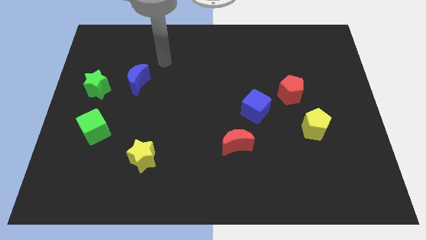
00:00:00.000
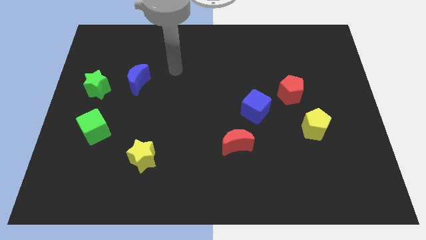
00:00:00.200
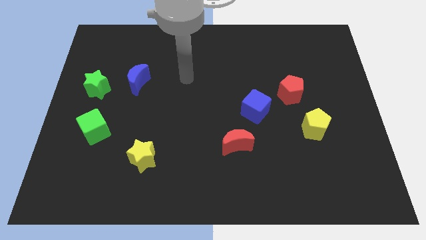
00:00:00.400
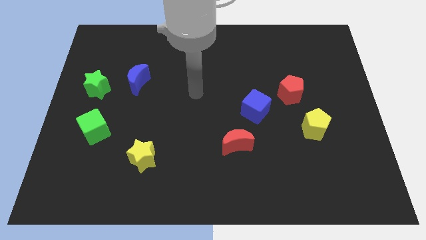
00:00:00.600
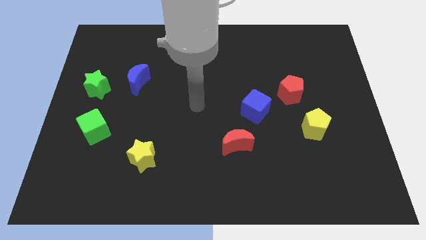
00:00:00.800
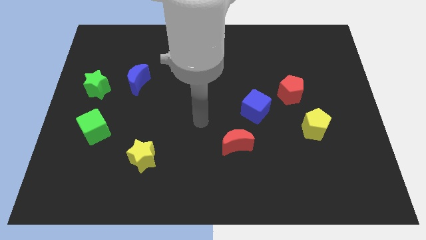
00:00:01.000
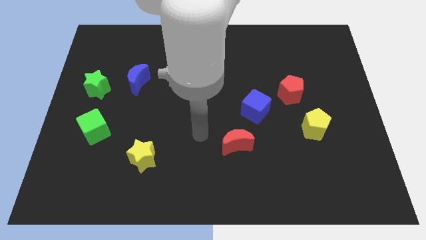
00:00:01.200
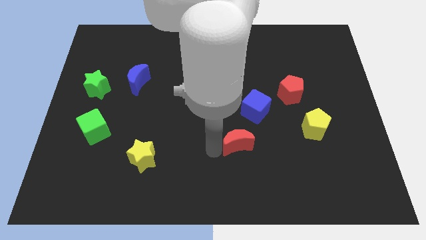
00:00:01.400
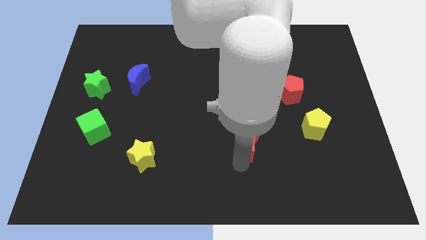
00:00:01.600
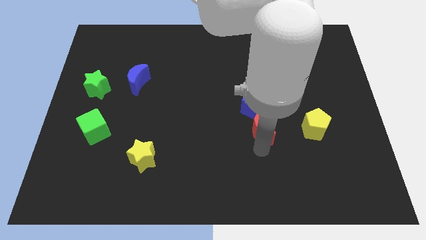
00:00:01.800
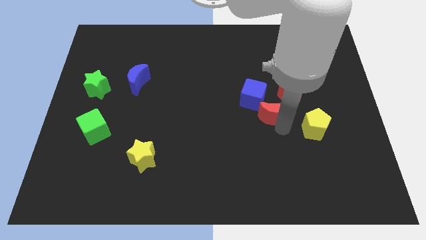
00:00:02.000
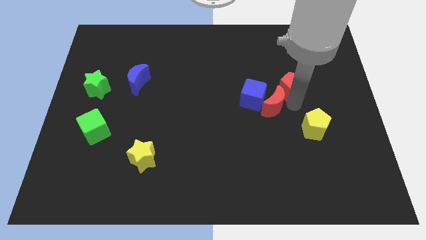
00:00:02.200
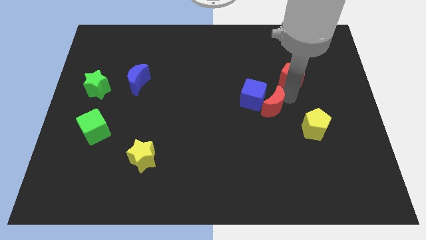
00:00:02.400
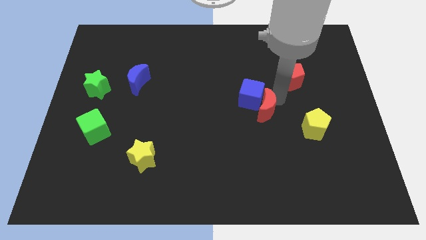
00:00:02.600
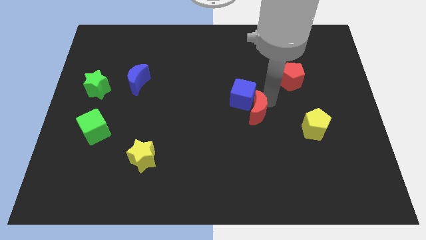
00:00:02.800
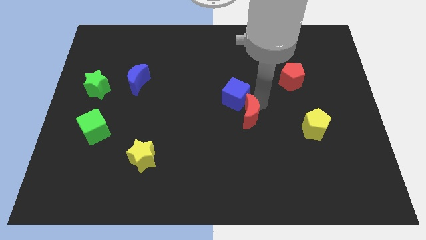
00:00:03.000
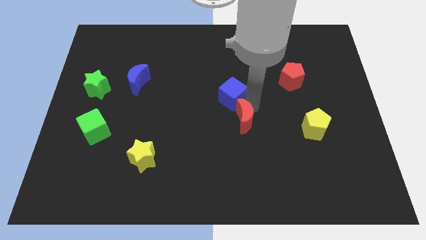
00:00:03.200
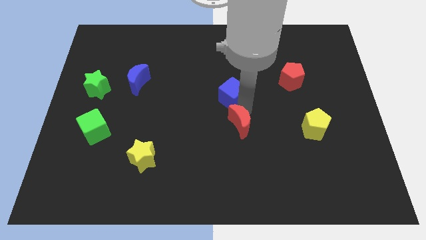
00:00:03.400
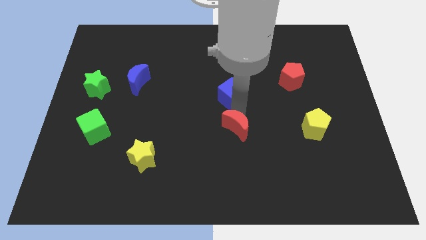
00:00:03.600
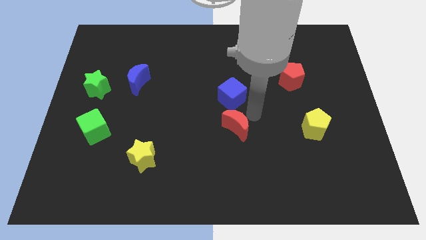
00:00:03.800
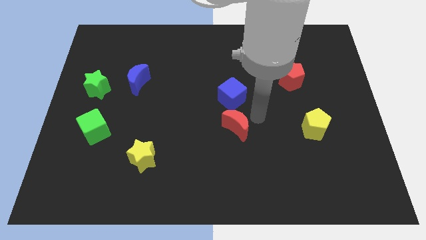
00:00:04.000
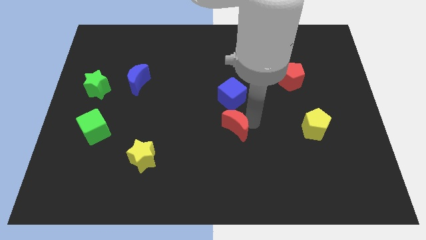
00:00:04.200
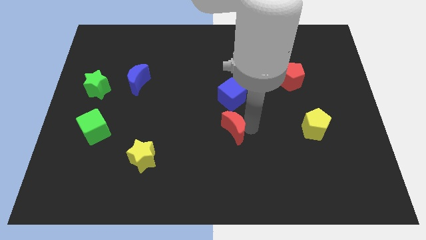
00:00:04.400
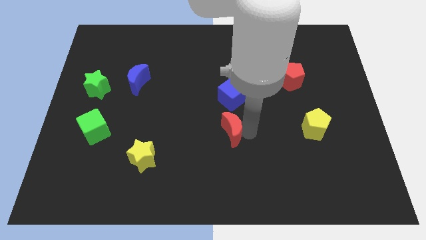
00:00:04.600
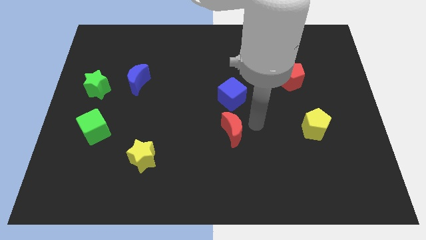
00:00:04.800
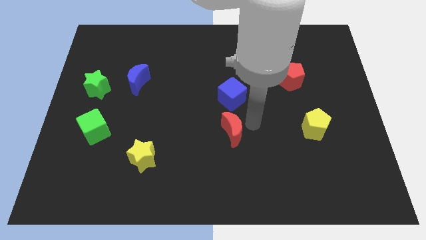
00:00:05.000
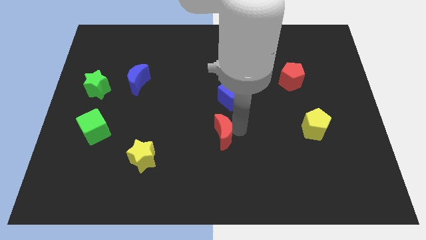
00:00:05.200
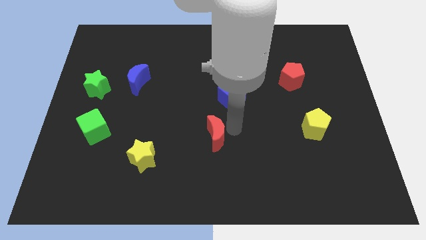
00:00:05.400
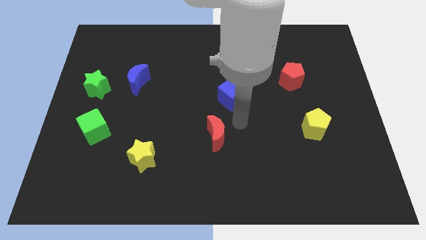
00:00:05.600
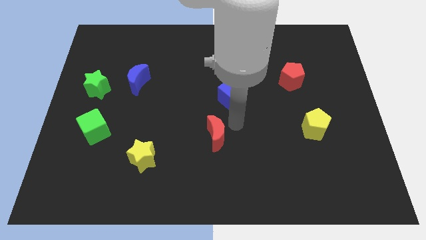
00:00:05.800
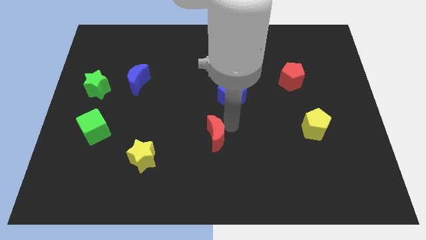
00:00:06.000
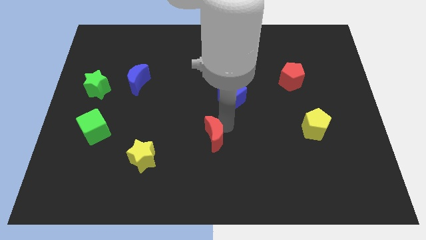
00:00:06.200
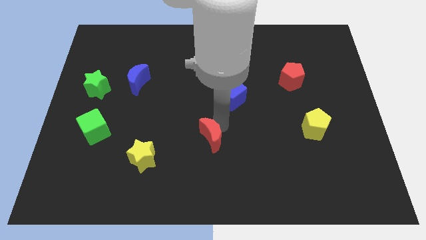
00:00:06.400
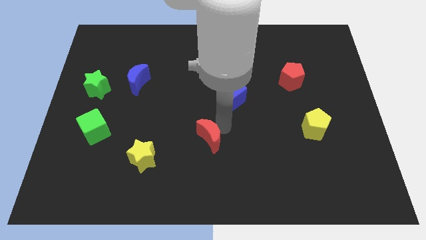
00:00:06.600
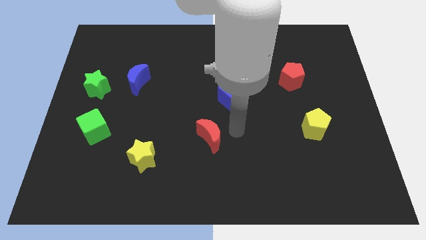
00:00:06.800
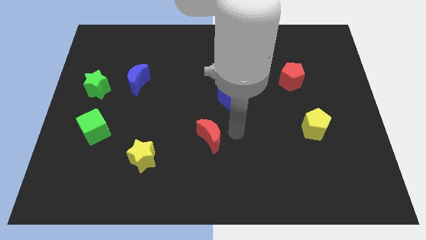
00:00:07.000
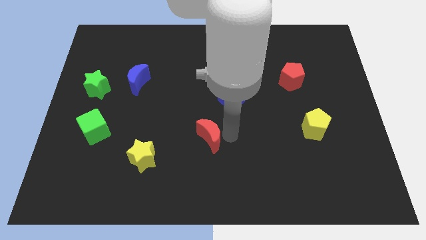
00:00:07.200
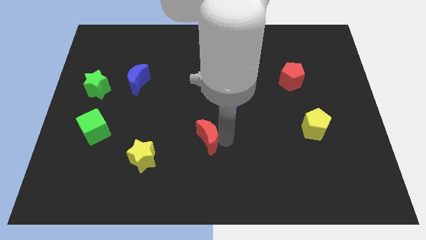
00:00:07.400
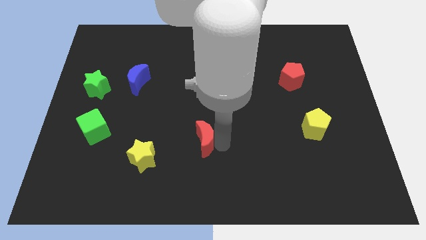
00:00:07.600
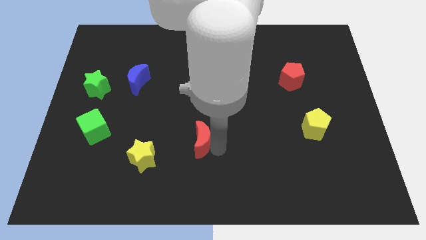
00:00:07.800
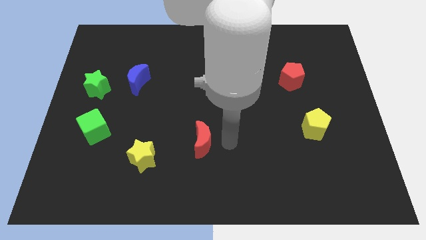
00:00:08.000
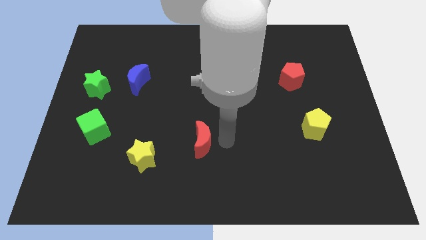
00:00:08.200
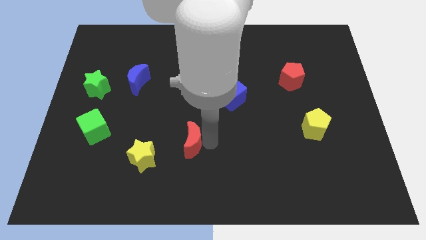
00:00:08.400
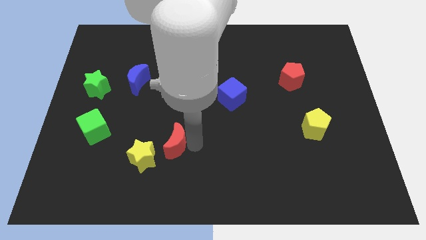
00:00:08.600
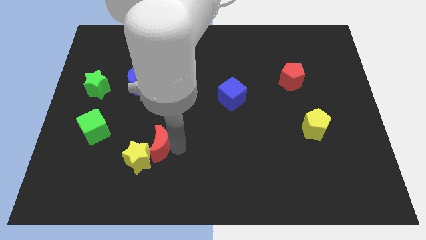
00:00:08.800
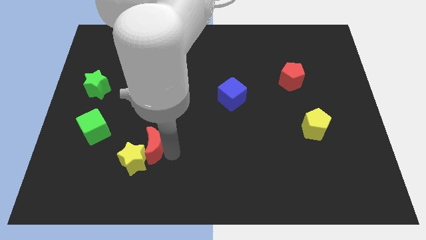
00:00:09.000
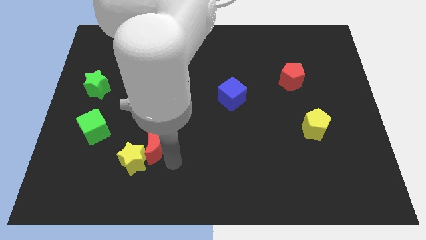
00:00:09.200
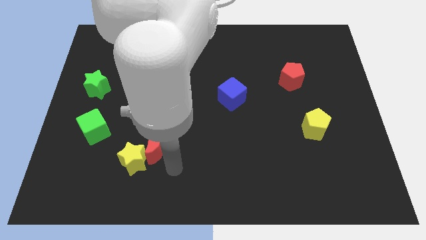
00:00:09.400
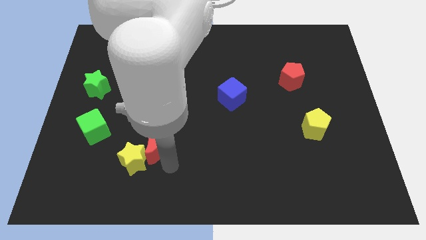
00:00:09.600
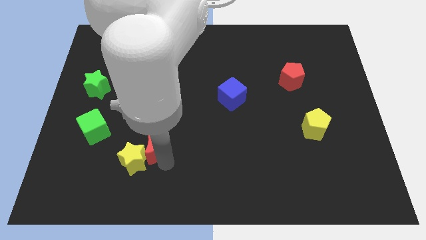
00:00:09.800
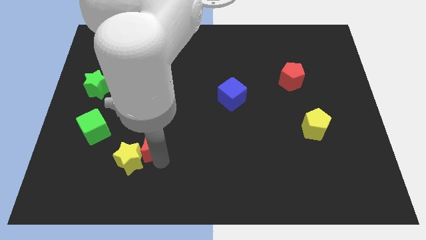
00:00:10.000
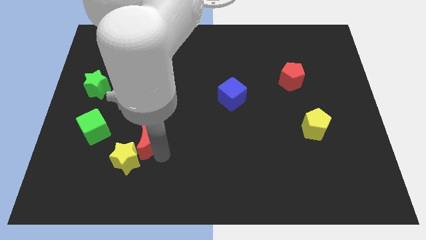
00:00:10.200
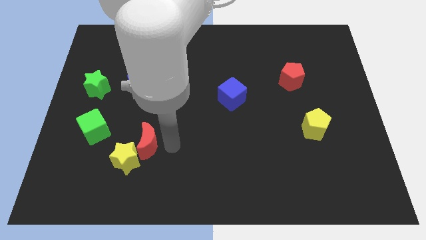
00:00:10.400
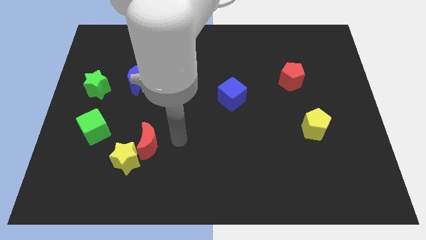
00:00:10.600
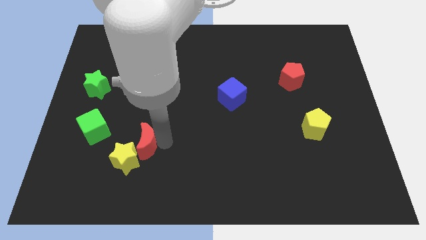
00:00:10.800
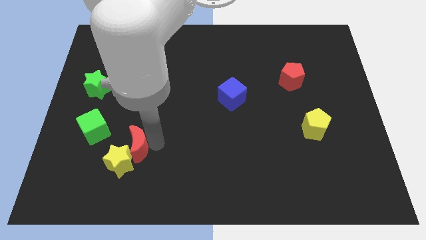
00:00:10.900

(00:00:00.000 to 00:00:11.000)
slide the red moon to the bottom right side of the green cube

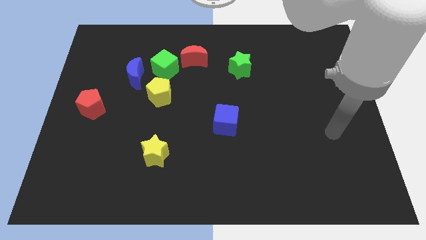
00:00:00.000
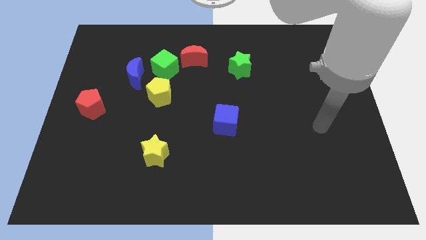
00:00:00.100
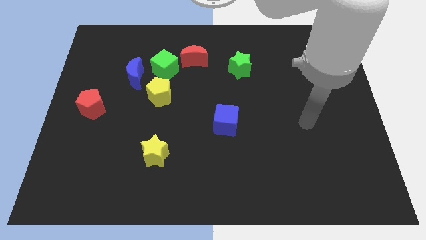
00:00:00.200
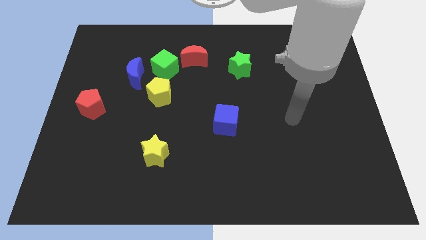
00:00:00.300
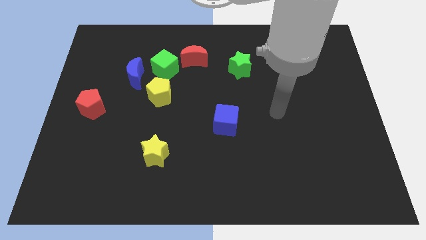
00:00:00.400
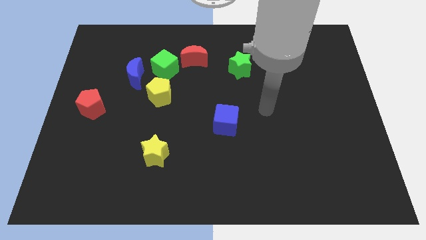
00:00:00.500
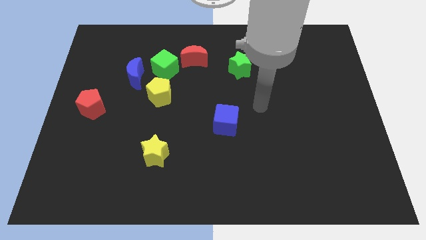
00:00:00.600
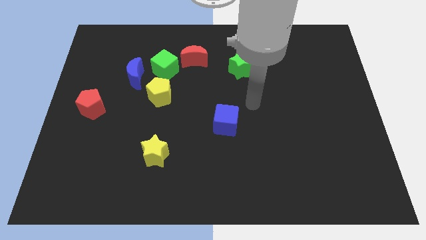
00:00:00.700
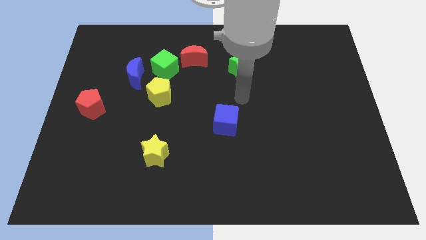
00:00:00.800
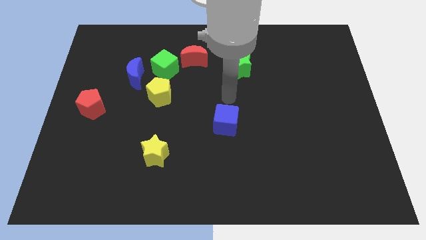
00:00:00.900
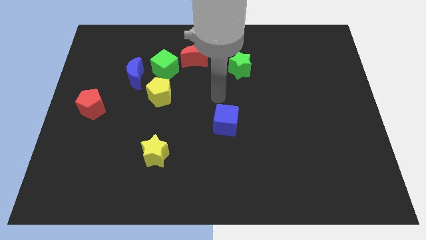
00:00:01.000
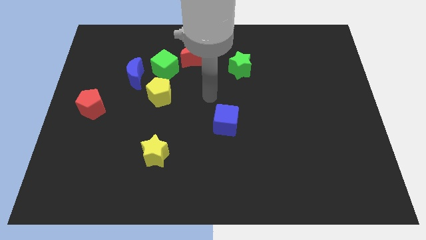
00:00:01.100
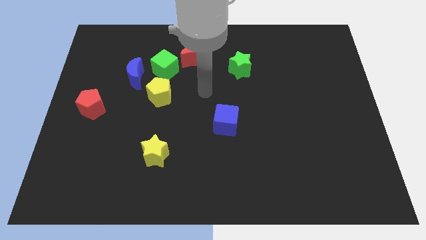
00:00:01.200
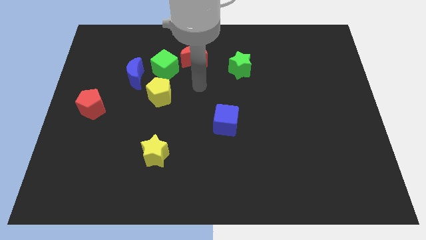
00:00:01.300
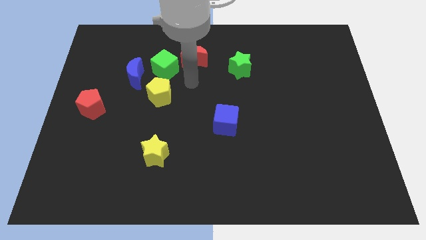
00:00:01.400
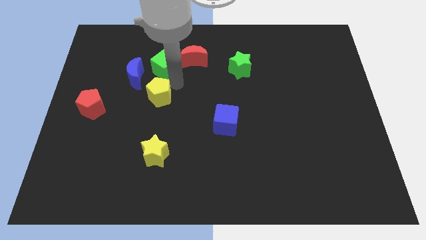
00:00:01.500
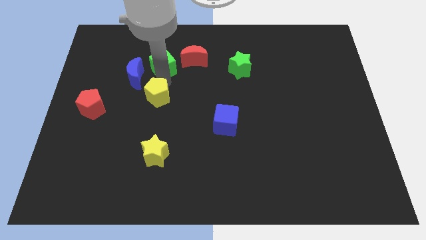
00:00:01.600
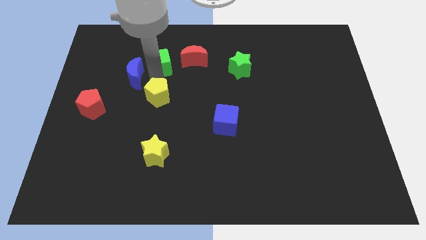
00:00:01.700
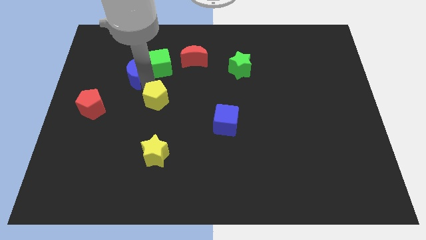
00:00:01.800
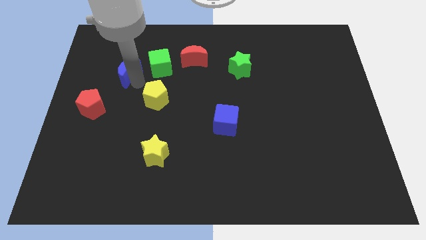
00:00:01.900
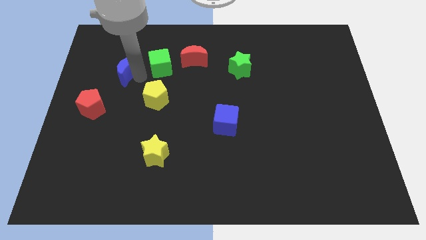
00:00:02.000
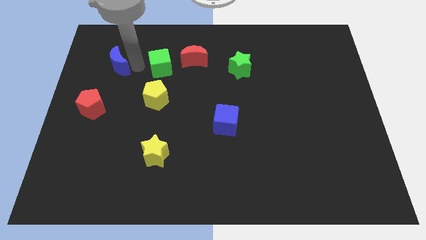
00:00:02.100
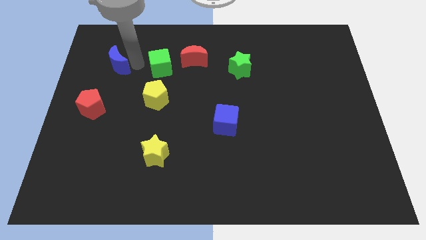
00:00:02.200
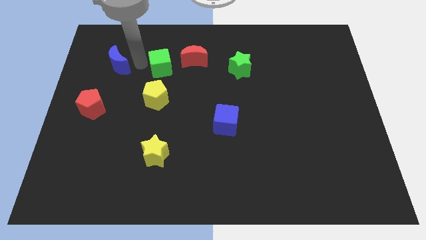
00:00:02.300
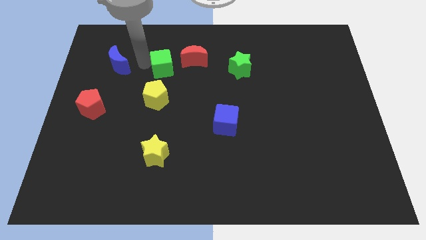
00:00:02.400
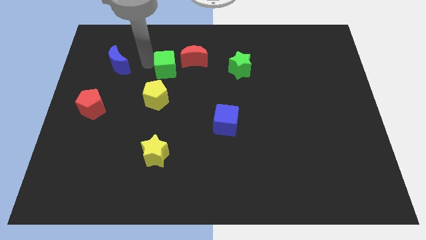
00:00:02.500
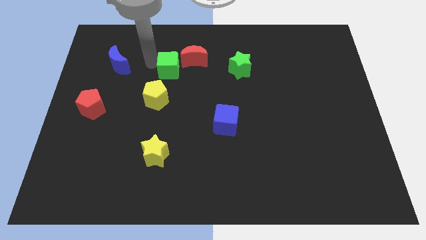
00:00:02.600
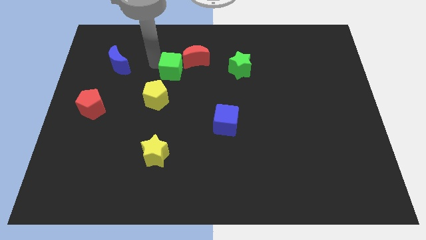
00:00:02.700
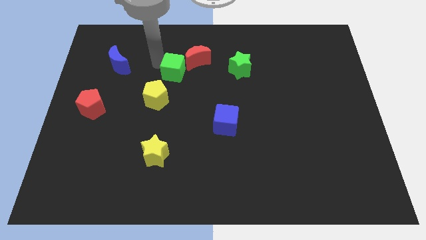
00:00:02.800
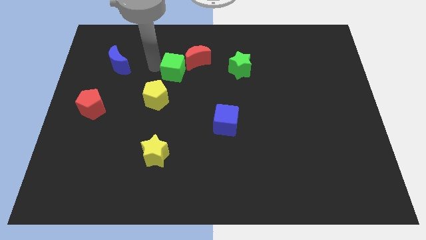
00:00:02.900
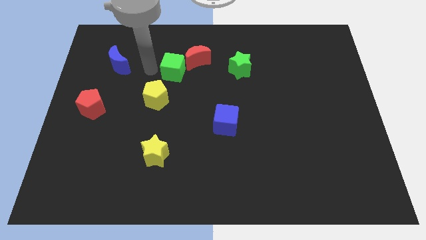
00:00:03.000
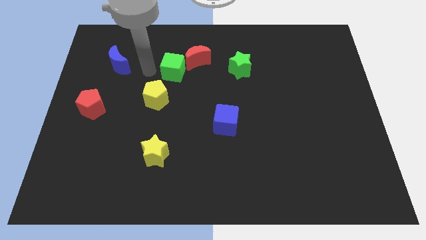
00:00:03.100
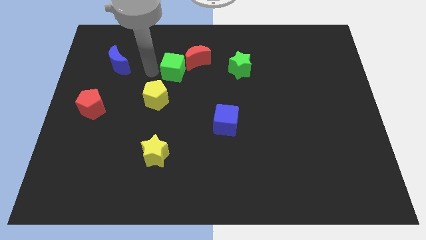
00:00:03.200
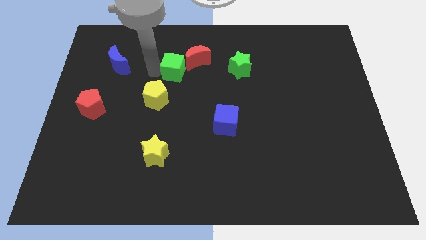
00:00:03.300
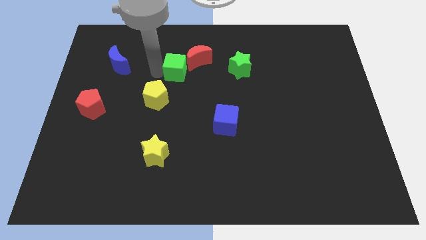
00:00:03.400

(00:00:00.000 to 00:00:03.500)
put the green cube to the left of the green star
